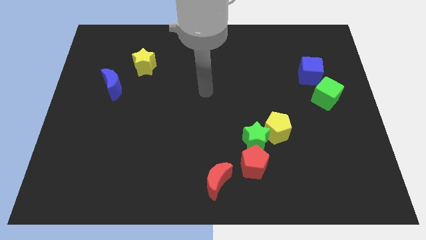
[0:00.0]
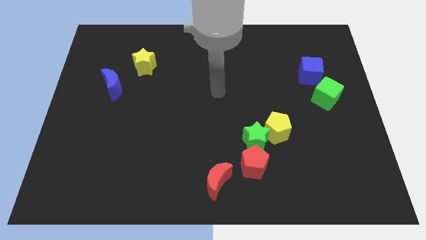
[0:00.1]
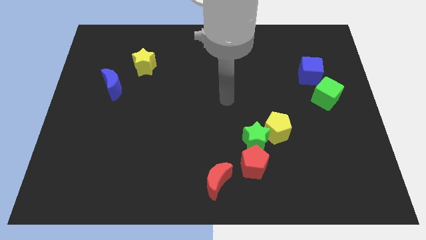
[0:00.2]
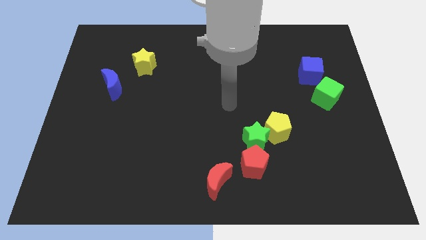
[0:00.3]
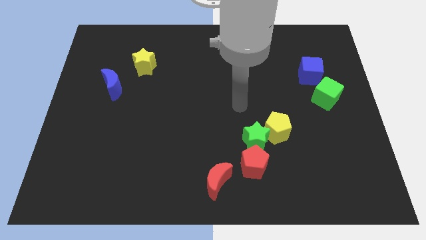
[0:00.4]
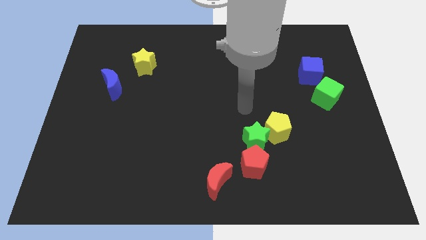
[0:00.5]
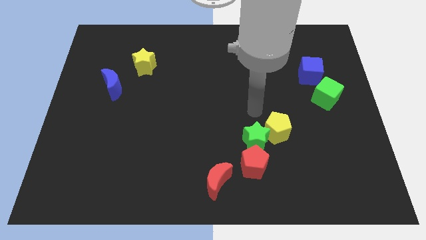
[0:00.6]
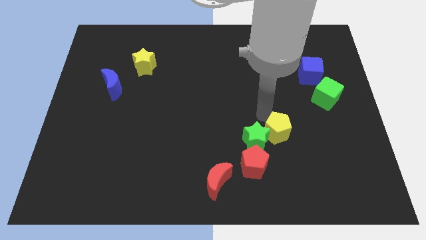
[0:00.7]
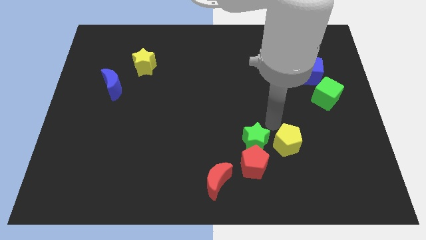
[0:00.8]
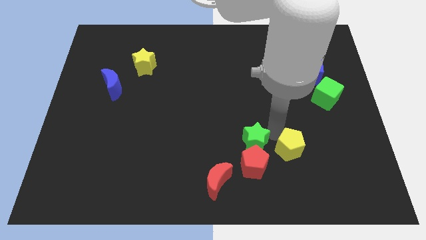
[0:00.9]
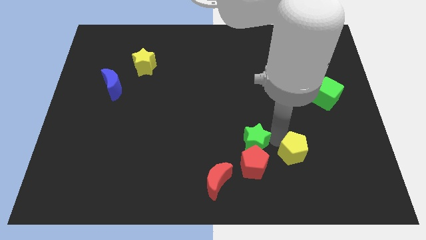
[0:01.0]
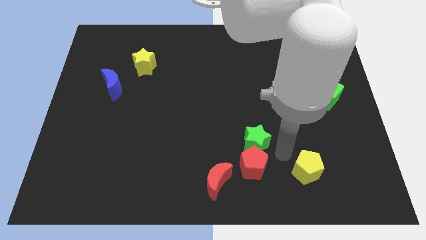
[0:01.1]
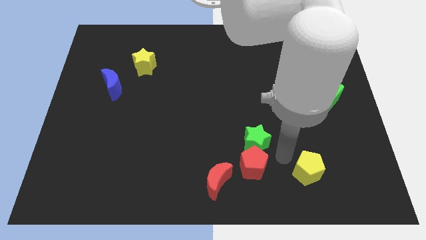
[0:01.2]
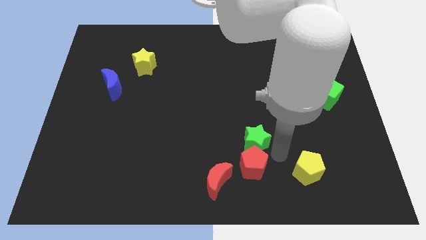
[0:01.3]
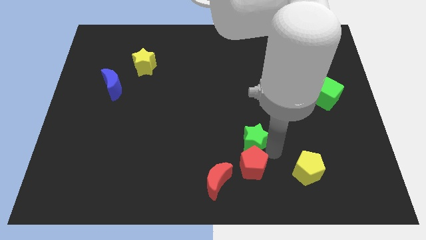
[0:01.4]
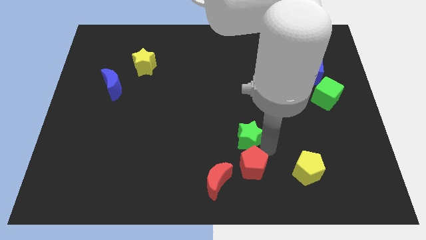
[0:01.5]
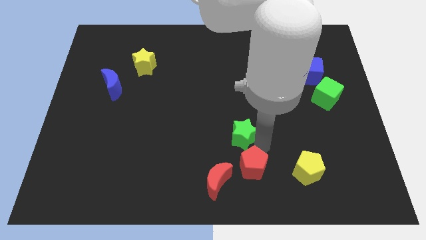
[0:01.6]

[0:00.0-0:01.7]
move the green star away from the yellow pentagon and red pentagon

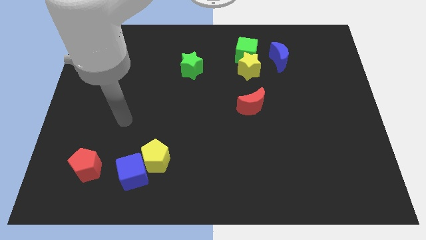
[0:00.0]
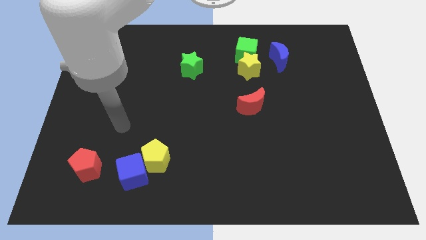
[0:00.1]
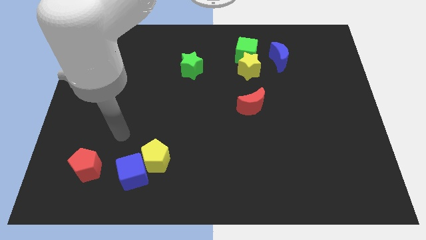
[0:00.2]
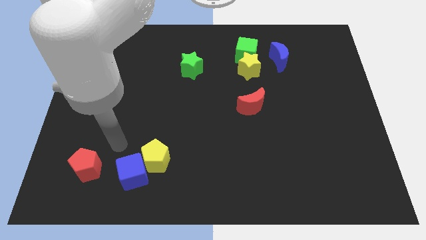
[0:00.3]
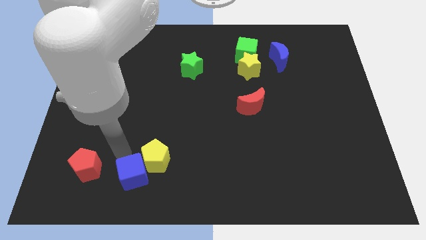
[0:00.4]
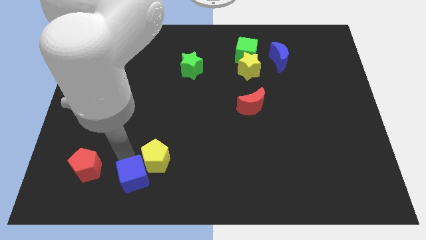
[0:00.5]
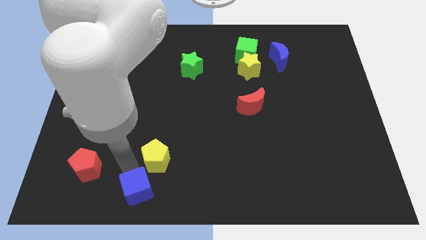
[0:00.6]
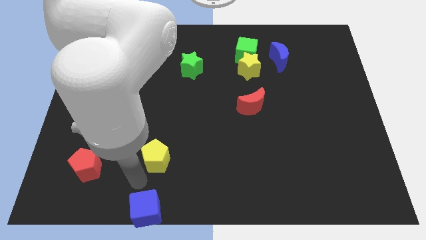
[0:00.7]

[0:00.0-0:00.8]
move the yellow pentagon away from the blue cube

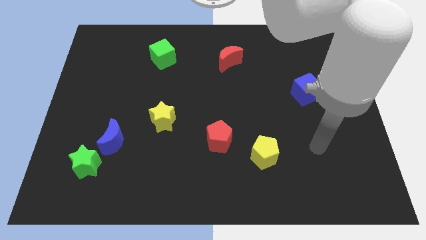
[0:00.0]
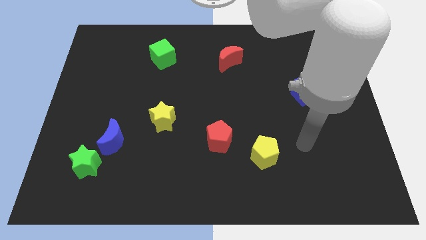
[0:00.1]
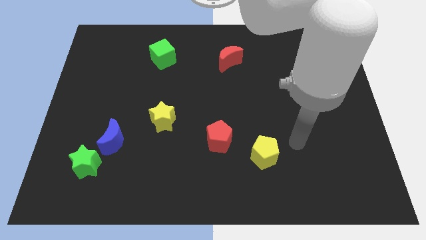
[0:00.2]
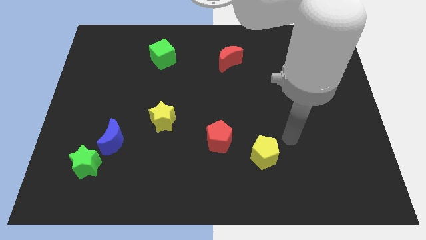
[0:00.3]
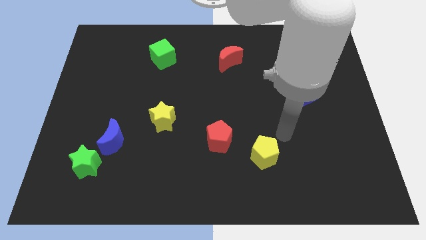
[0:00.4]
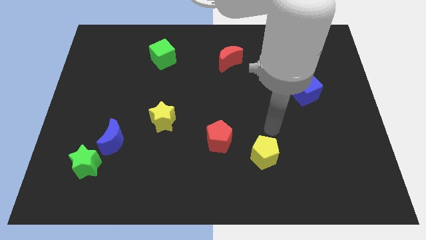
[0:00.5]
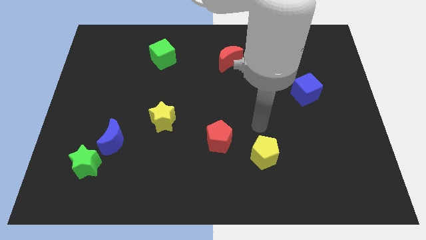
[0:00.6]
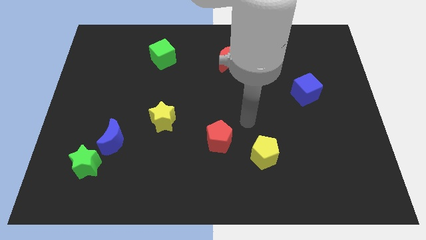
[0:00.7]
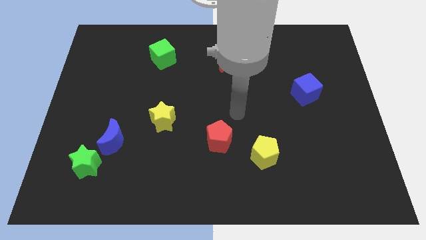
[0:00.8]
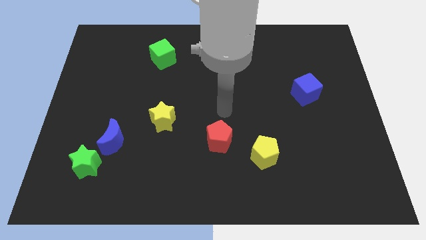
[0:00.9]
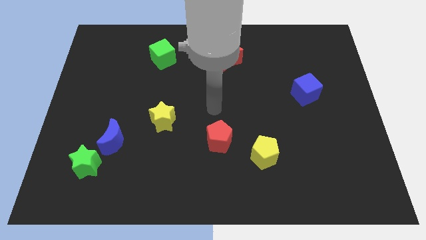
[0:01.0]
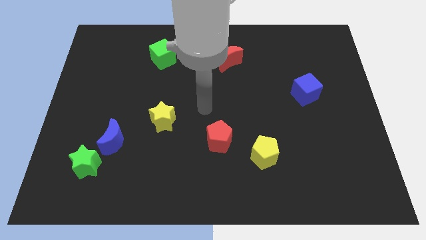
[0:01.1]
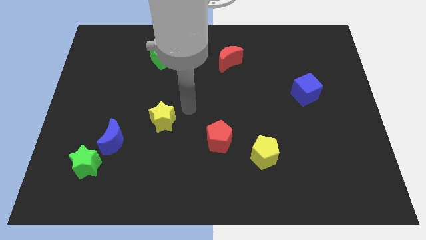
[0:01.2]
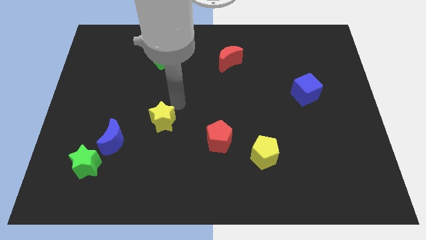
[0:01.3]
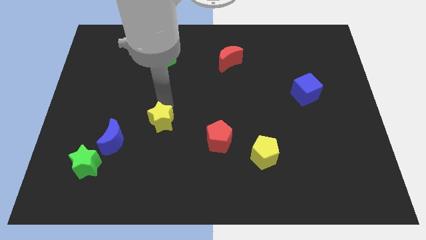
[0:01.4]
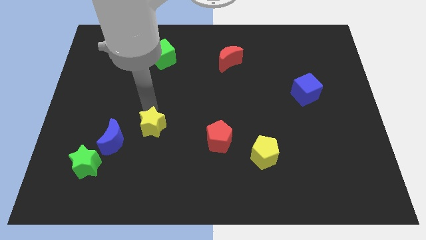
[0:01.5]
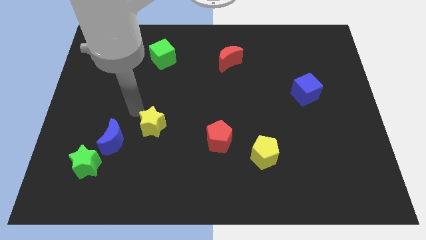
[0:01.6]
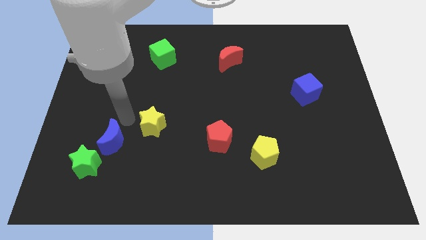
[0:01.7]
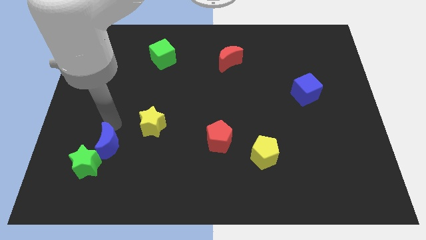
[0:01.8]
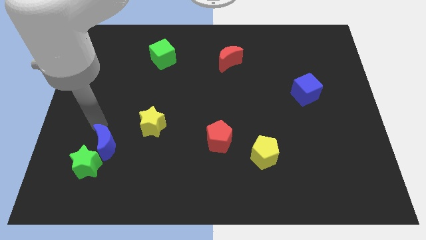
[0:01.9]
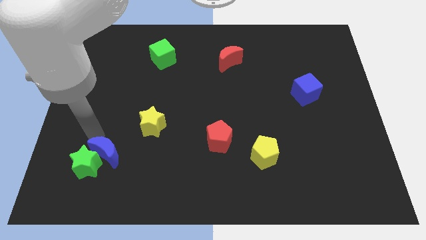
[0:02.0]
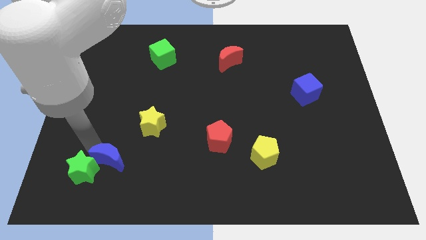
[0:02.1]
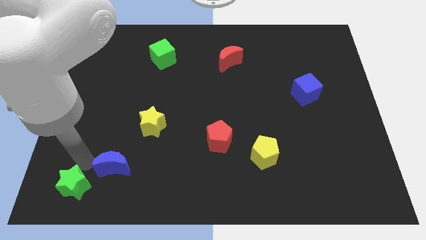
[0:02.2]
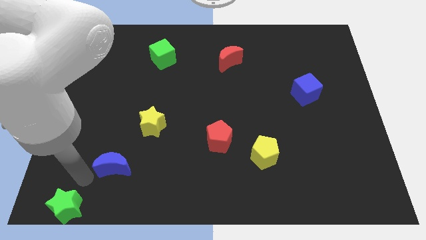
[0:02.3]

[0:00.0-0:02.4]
separate the blue moon from the green star

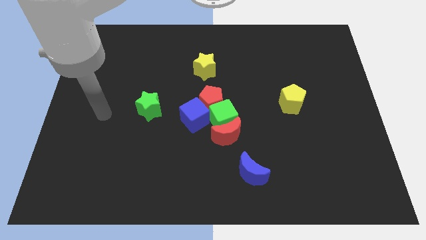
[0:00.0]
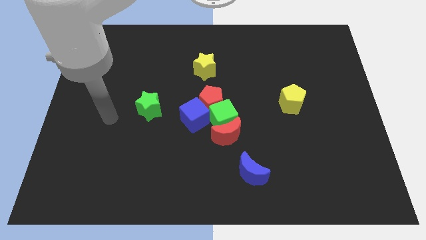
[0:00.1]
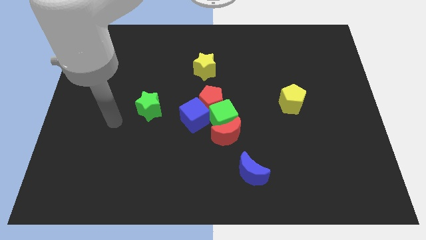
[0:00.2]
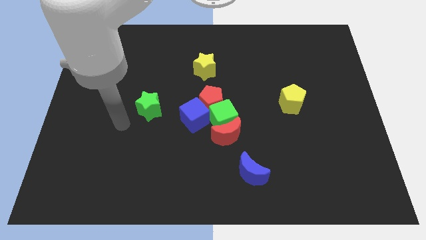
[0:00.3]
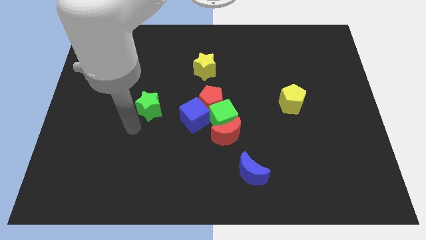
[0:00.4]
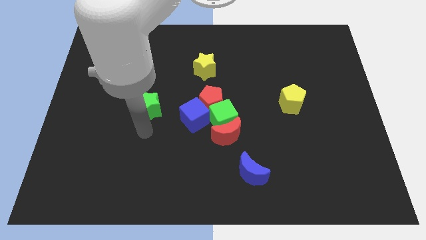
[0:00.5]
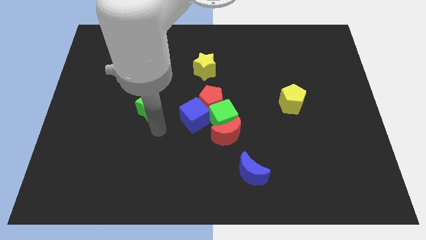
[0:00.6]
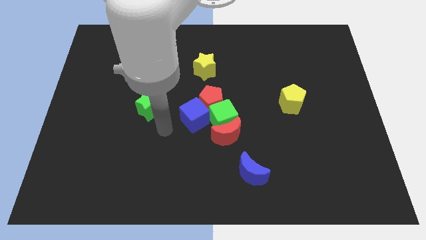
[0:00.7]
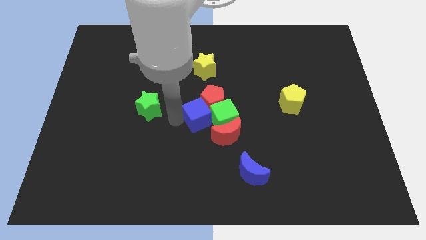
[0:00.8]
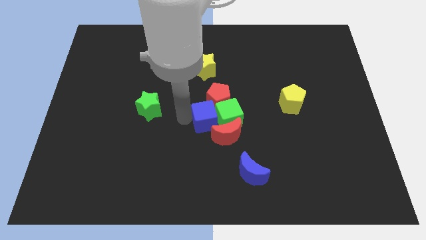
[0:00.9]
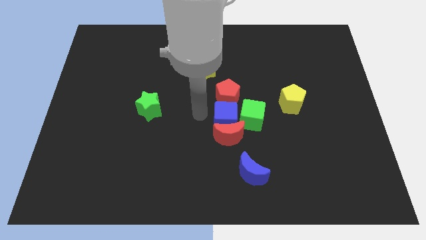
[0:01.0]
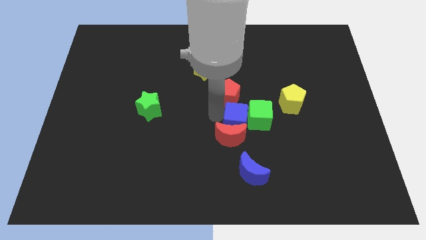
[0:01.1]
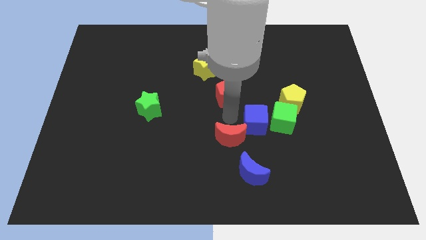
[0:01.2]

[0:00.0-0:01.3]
move the green cube away from the clump

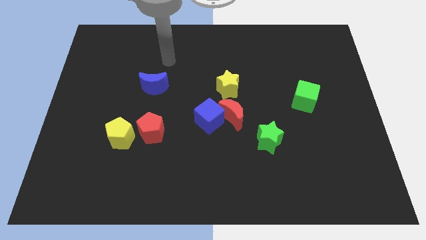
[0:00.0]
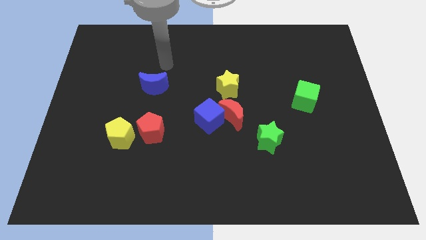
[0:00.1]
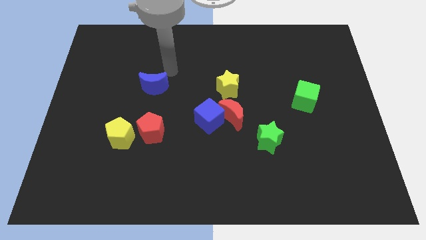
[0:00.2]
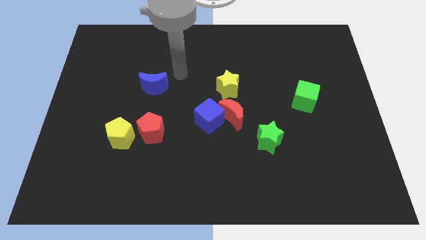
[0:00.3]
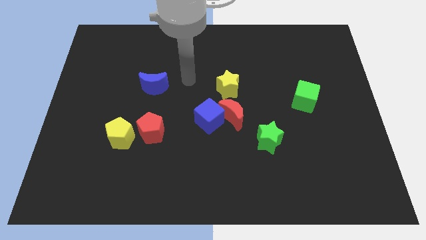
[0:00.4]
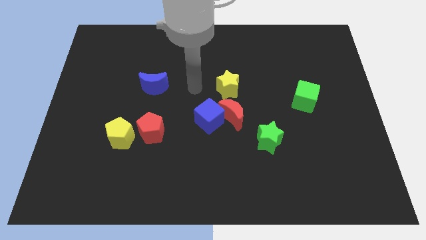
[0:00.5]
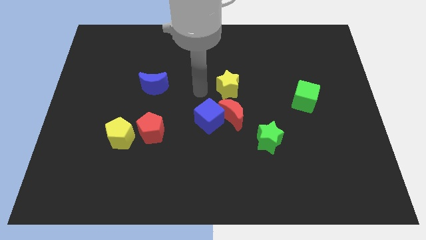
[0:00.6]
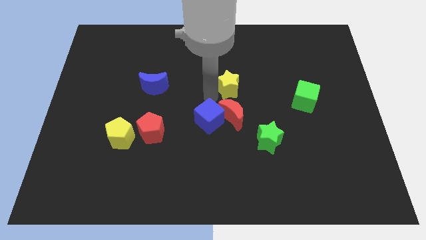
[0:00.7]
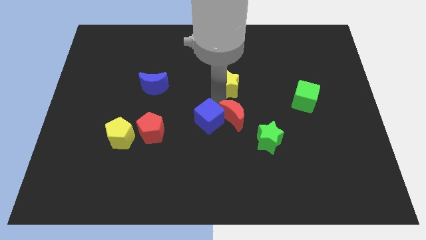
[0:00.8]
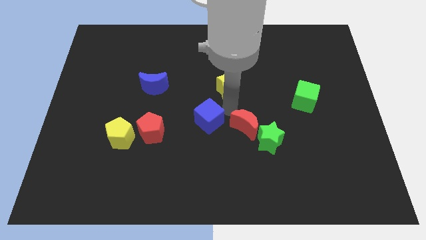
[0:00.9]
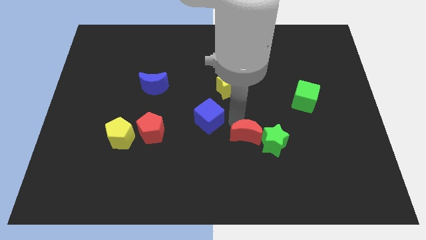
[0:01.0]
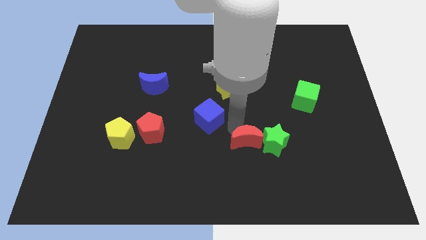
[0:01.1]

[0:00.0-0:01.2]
separate the blue cube from the red moon

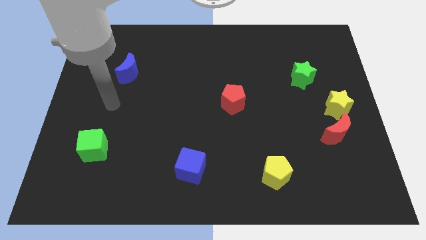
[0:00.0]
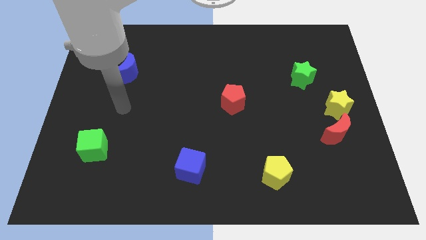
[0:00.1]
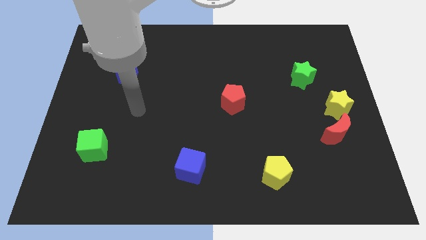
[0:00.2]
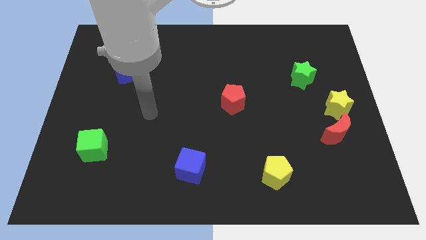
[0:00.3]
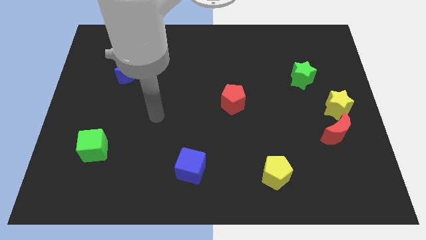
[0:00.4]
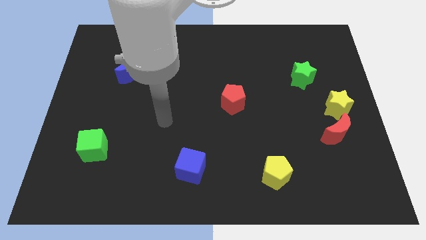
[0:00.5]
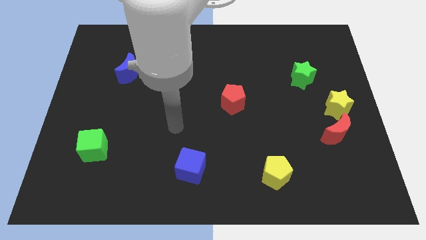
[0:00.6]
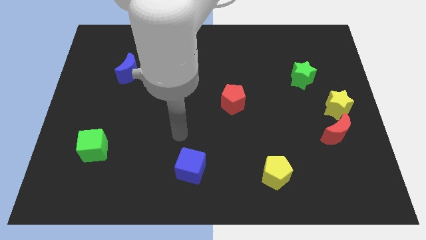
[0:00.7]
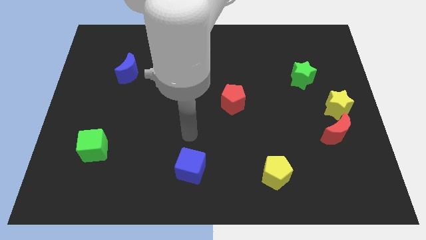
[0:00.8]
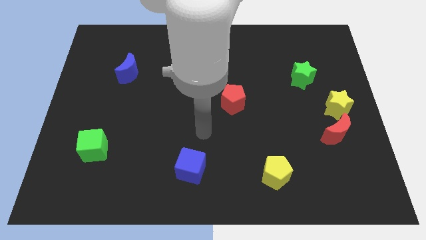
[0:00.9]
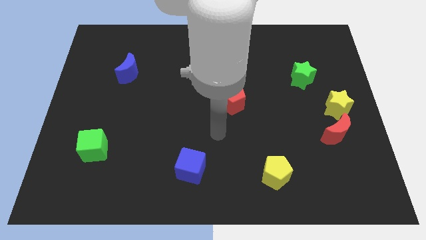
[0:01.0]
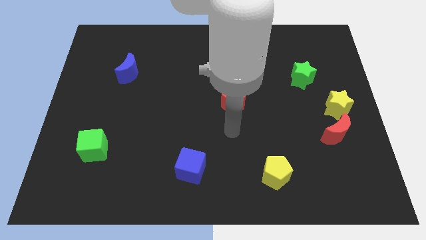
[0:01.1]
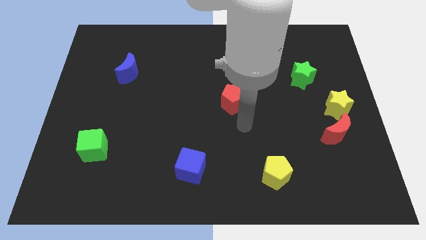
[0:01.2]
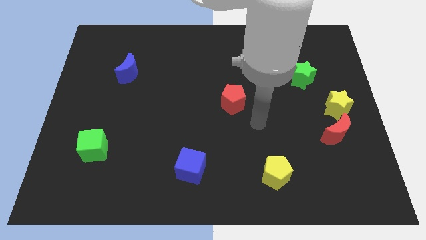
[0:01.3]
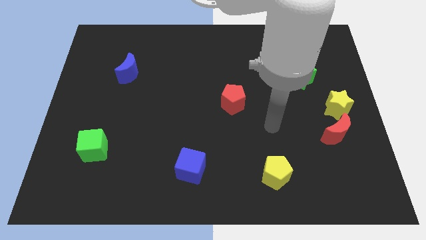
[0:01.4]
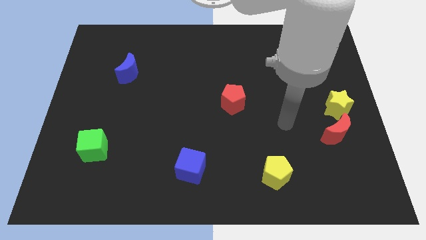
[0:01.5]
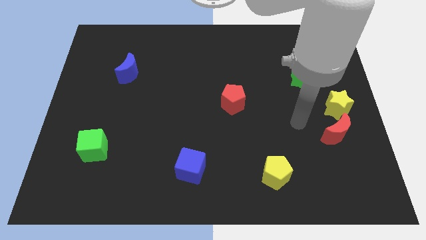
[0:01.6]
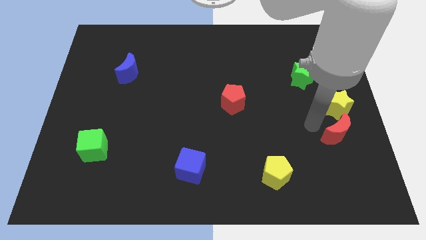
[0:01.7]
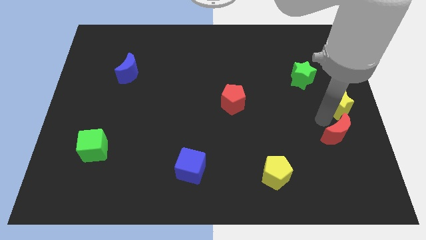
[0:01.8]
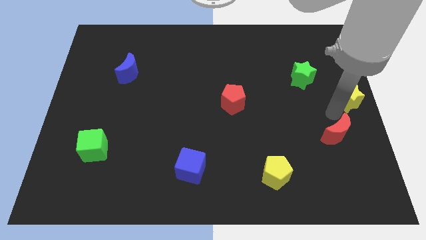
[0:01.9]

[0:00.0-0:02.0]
move the red moon away from the yellow star
